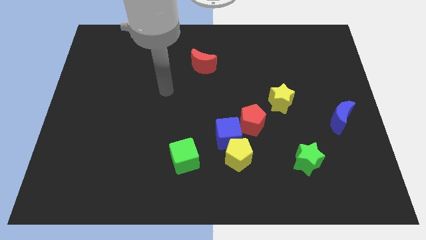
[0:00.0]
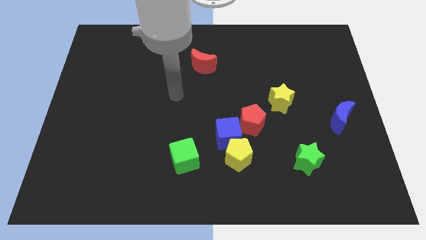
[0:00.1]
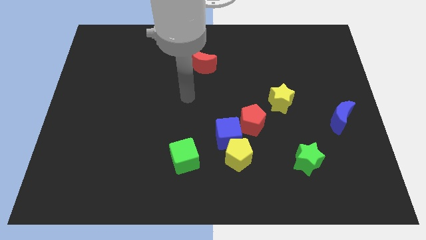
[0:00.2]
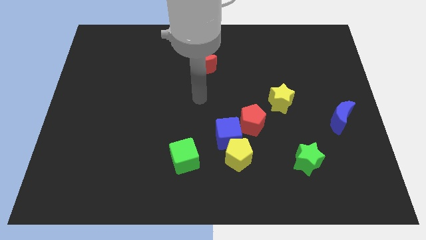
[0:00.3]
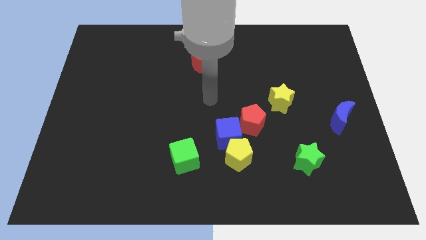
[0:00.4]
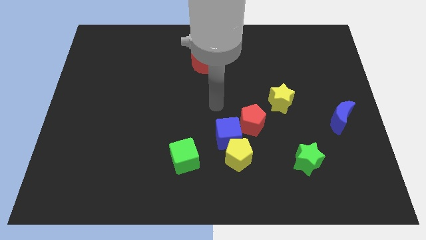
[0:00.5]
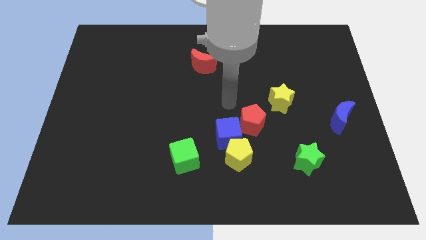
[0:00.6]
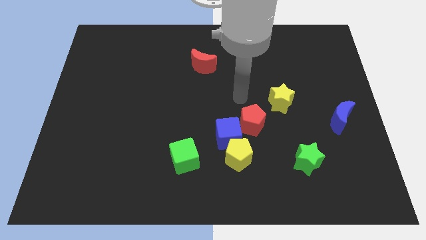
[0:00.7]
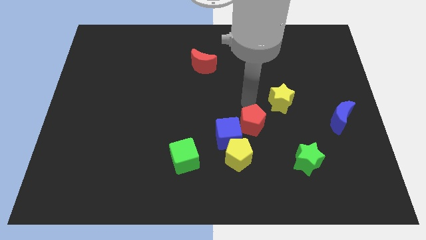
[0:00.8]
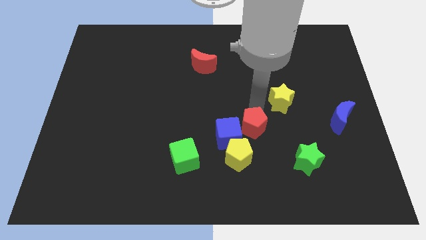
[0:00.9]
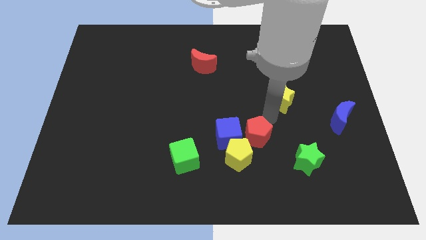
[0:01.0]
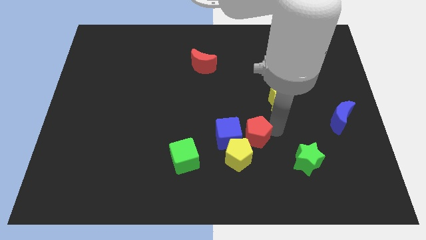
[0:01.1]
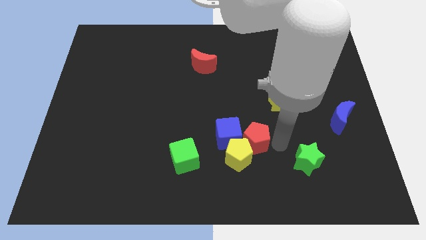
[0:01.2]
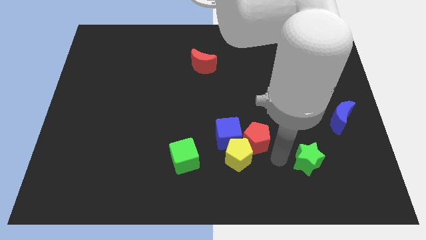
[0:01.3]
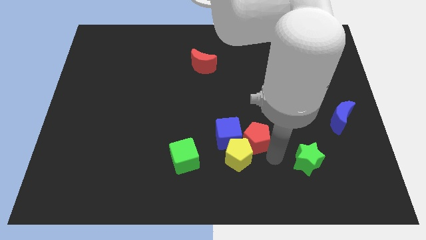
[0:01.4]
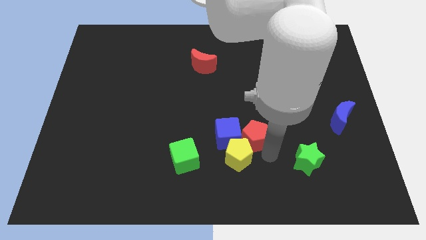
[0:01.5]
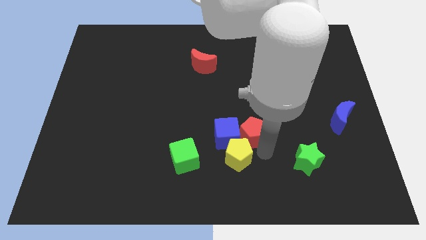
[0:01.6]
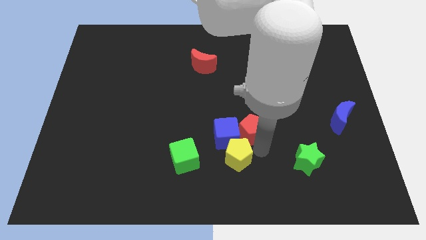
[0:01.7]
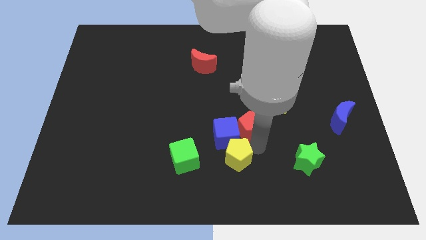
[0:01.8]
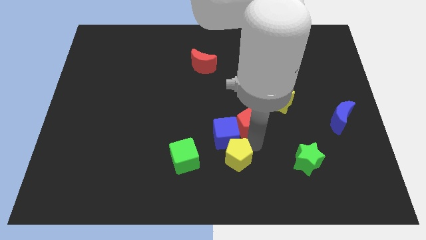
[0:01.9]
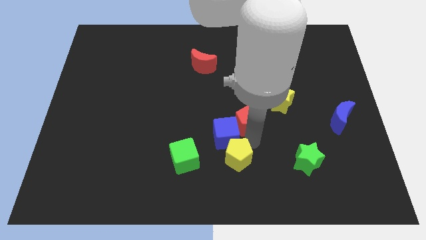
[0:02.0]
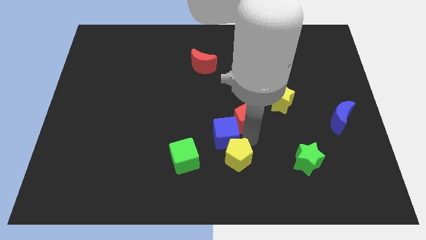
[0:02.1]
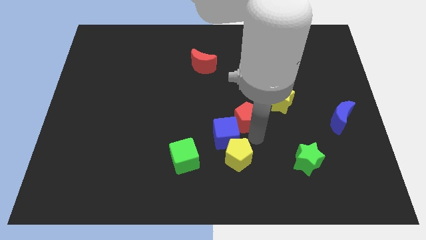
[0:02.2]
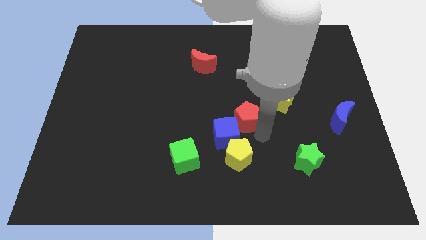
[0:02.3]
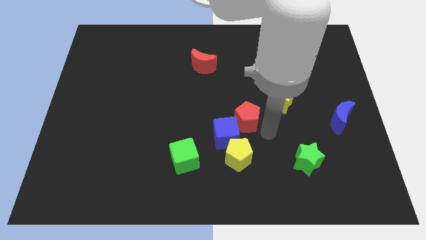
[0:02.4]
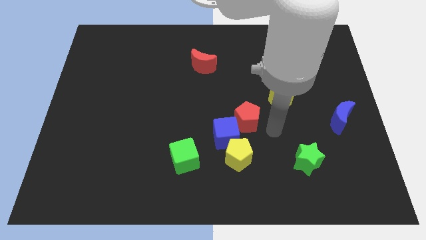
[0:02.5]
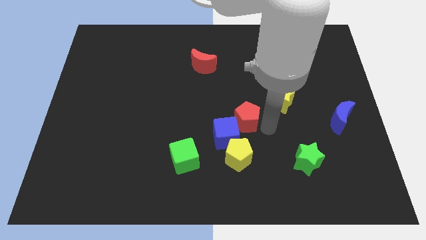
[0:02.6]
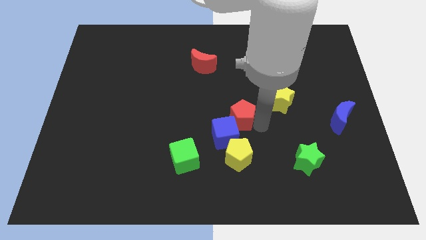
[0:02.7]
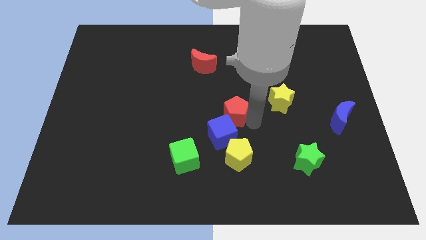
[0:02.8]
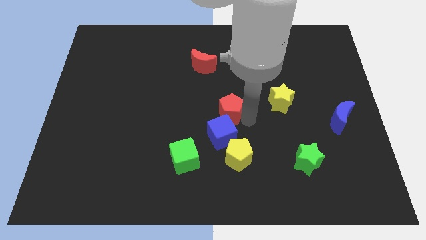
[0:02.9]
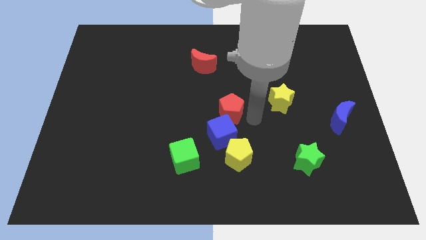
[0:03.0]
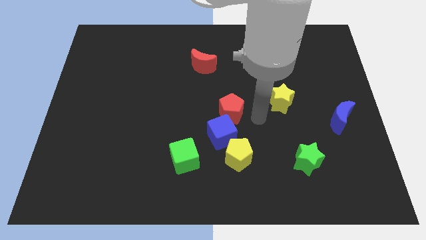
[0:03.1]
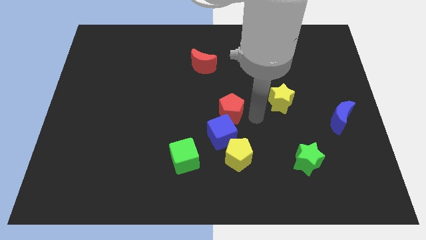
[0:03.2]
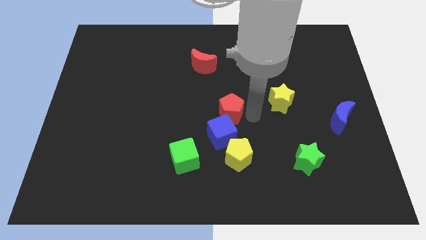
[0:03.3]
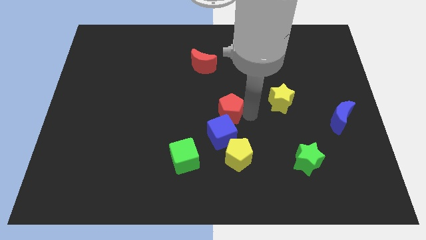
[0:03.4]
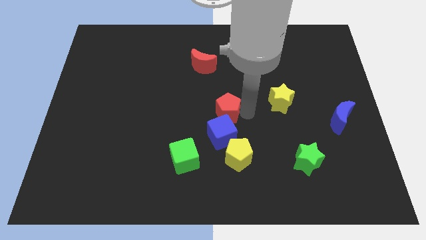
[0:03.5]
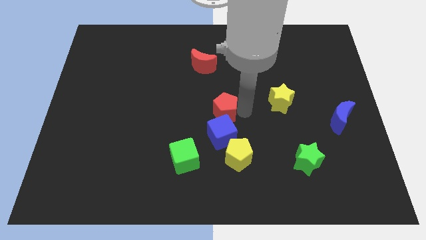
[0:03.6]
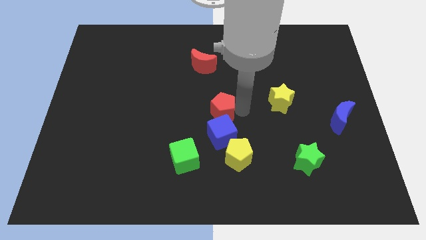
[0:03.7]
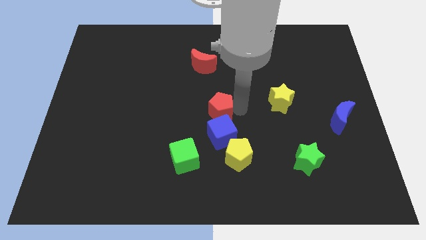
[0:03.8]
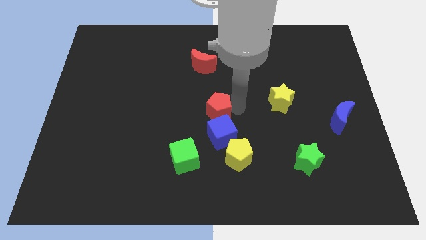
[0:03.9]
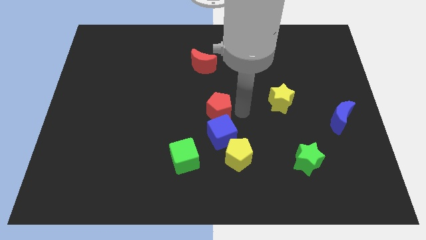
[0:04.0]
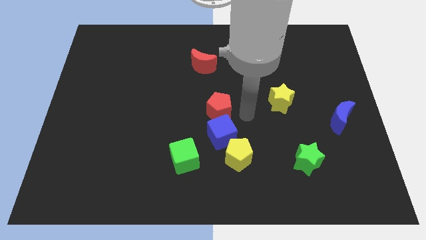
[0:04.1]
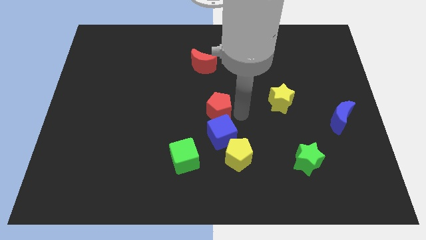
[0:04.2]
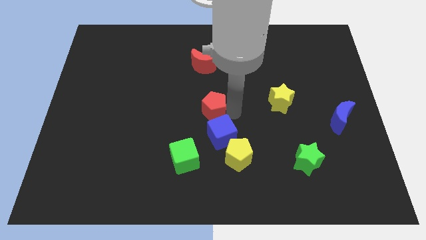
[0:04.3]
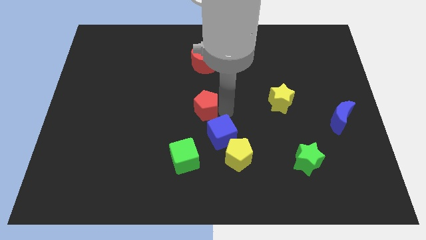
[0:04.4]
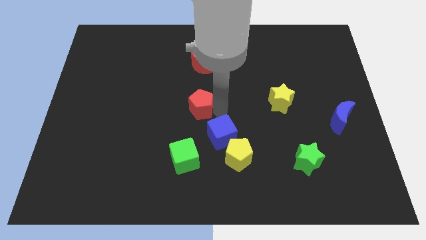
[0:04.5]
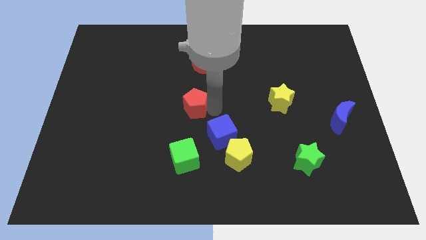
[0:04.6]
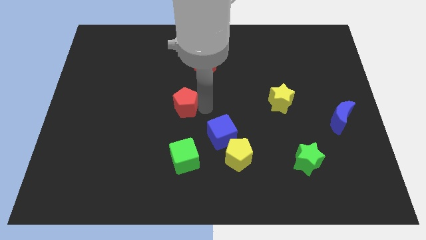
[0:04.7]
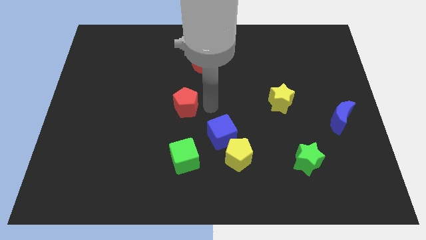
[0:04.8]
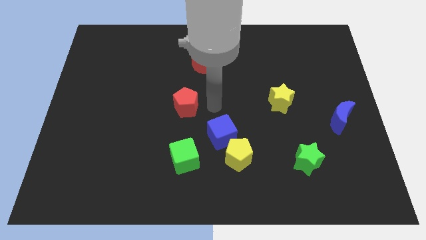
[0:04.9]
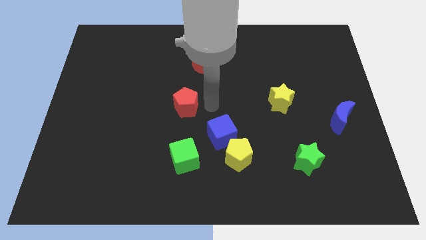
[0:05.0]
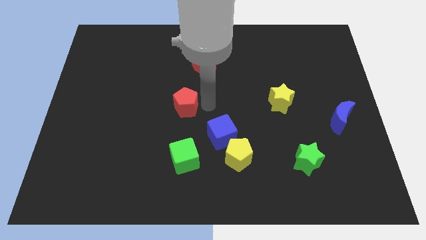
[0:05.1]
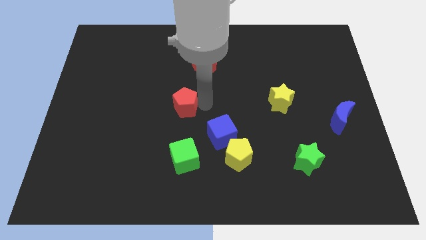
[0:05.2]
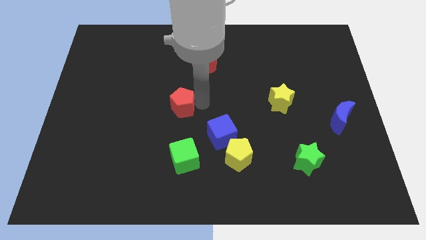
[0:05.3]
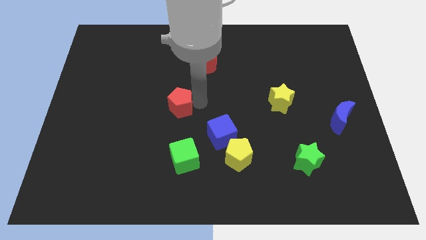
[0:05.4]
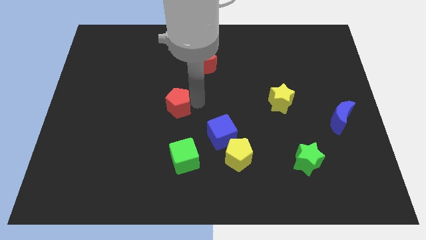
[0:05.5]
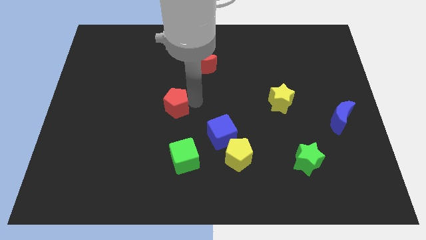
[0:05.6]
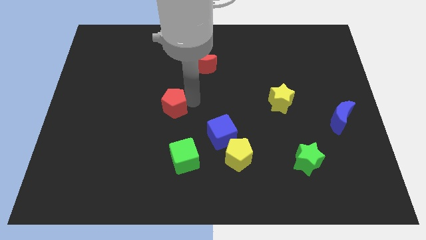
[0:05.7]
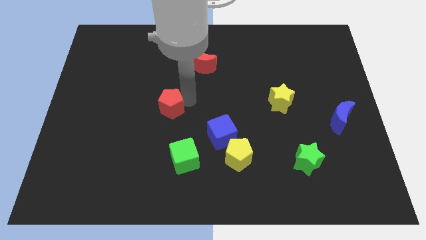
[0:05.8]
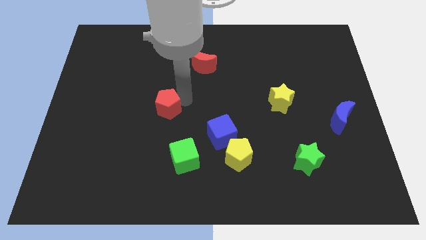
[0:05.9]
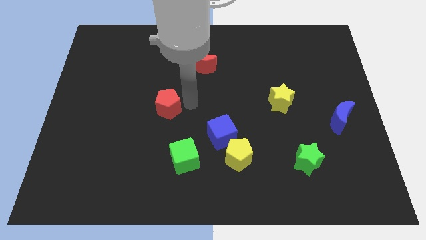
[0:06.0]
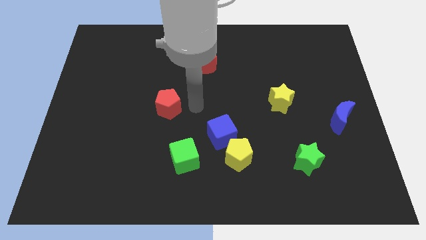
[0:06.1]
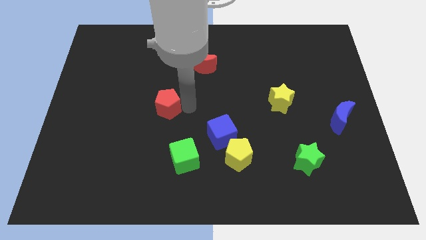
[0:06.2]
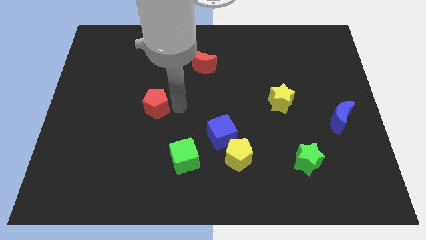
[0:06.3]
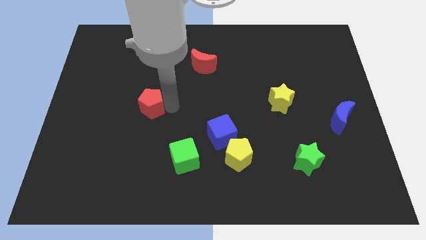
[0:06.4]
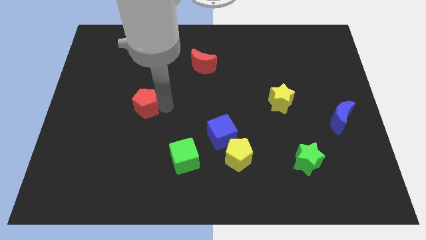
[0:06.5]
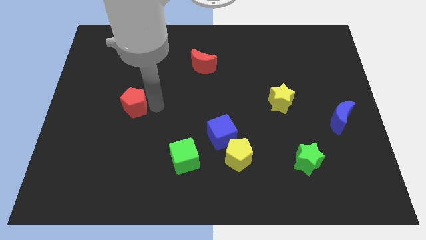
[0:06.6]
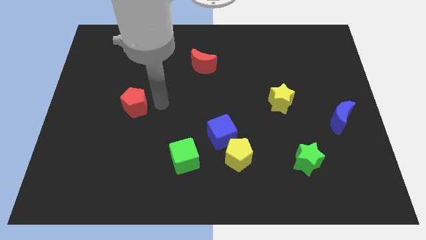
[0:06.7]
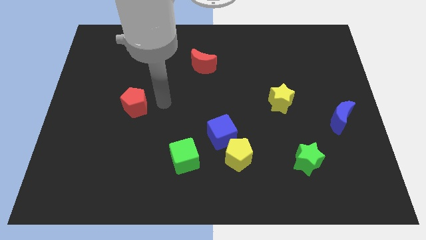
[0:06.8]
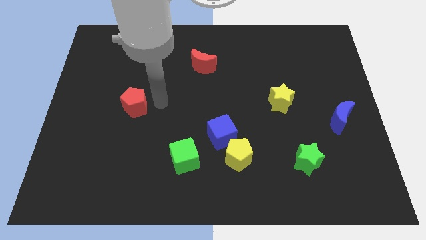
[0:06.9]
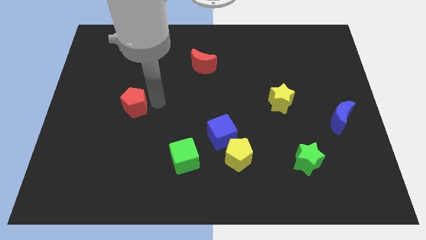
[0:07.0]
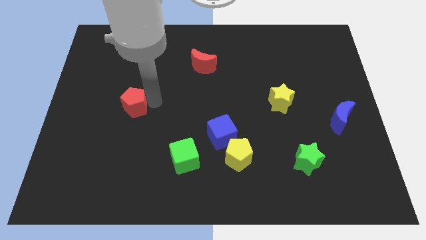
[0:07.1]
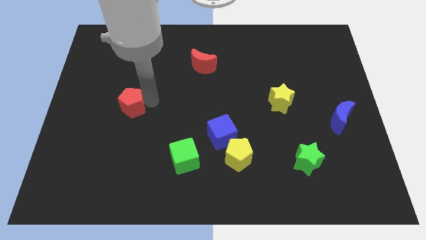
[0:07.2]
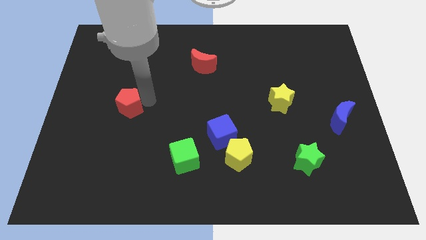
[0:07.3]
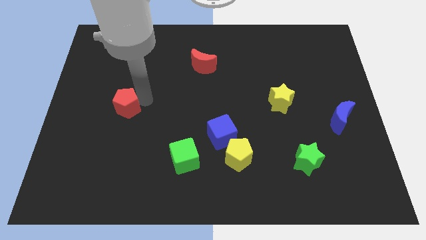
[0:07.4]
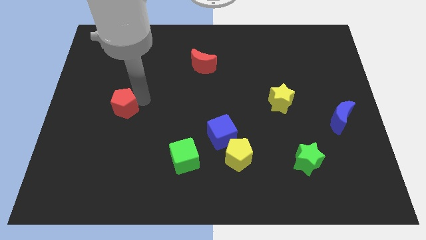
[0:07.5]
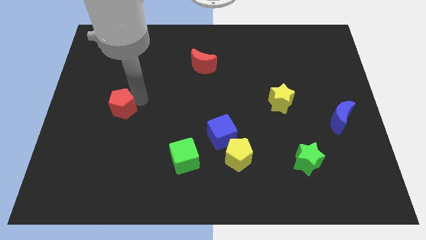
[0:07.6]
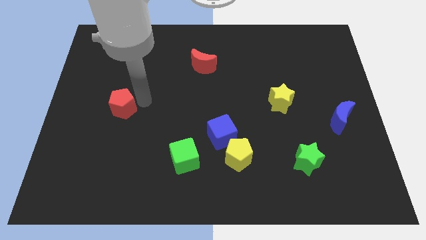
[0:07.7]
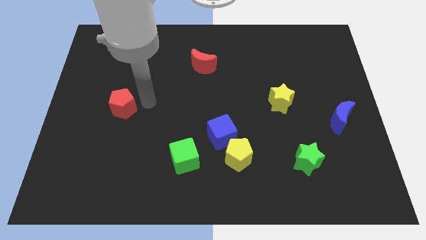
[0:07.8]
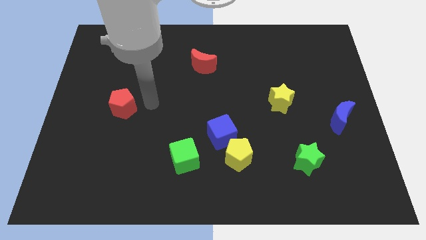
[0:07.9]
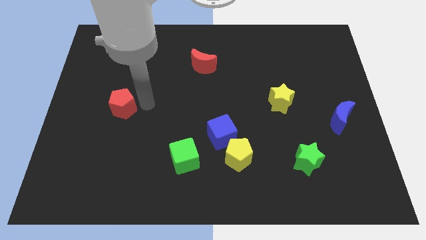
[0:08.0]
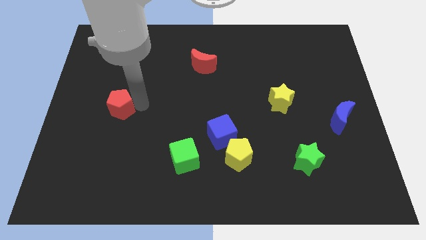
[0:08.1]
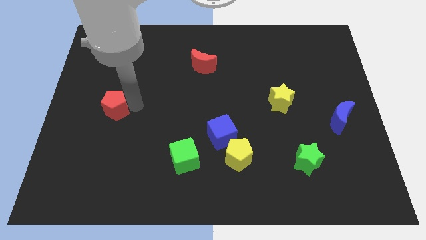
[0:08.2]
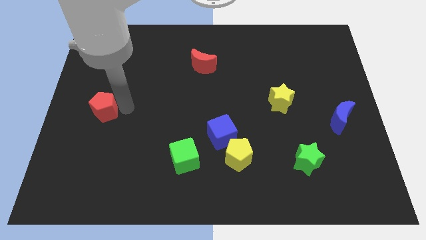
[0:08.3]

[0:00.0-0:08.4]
slide the red pentagon to the left side of the board
